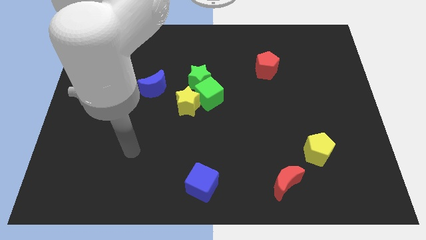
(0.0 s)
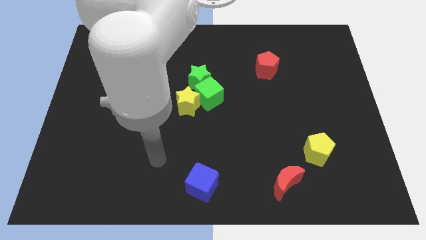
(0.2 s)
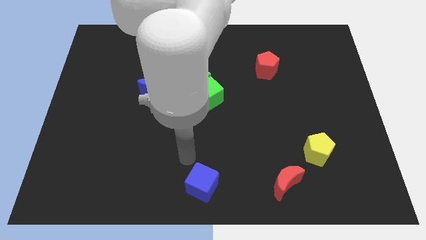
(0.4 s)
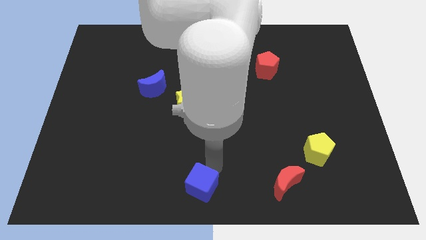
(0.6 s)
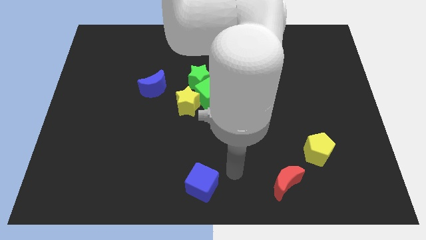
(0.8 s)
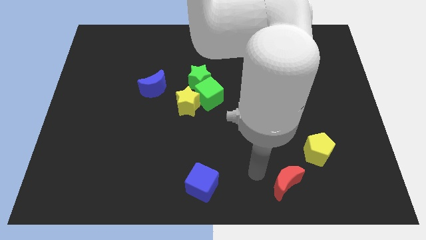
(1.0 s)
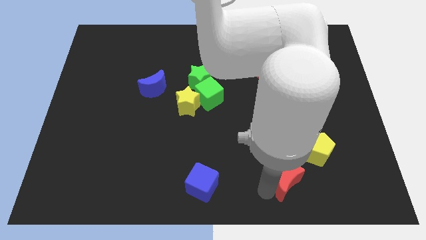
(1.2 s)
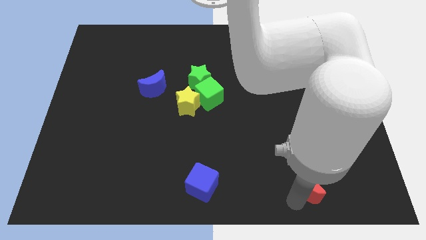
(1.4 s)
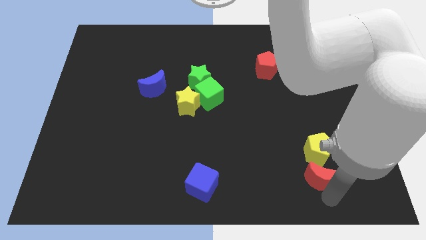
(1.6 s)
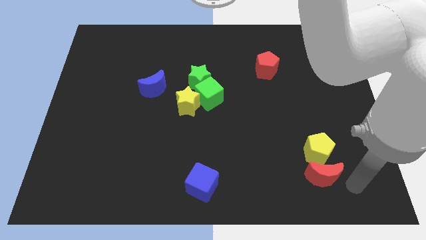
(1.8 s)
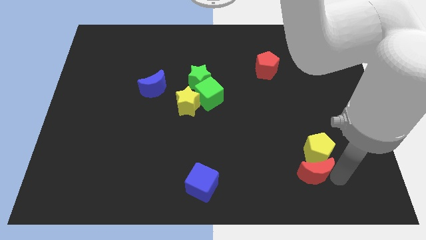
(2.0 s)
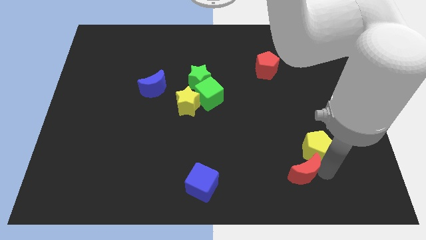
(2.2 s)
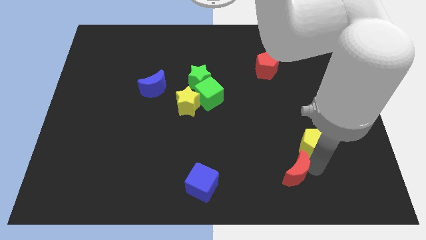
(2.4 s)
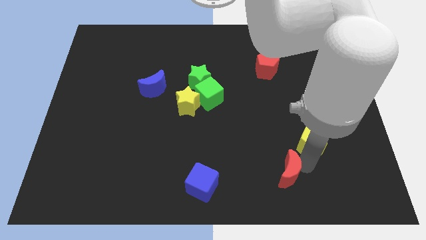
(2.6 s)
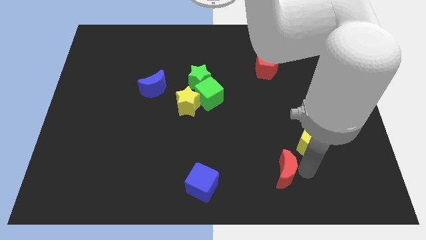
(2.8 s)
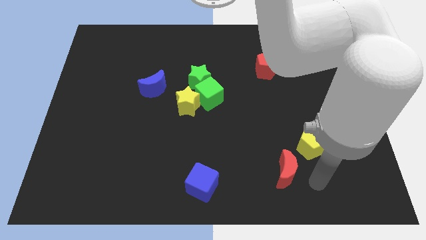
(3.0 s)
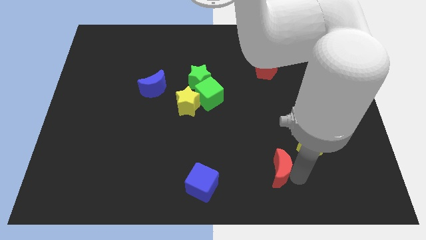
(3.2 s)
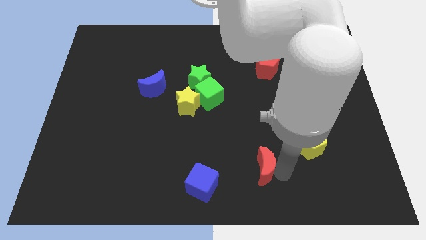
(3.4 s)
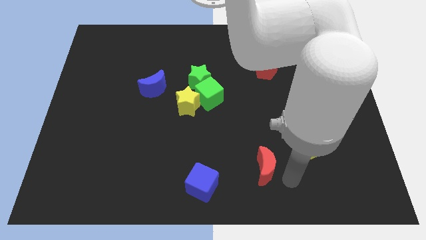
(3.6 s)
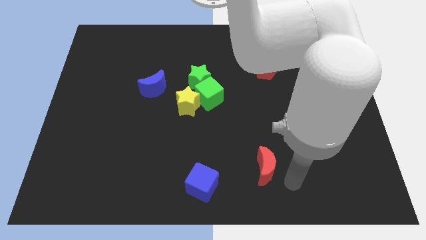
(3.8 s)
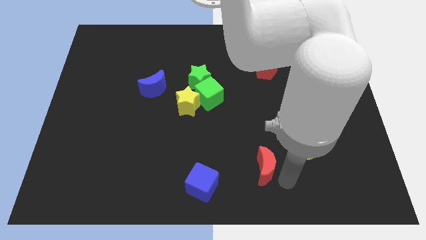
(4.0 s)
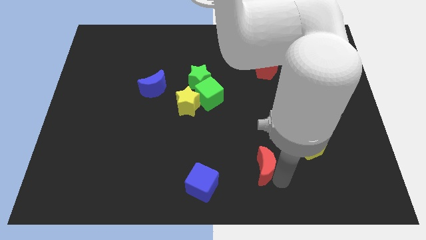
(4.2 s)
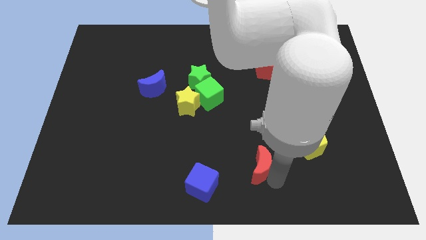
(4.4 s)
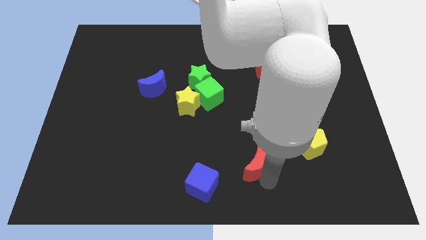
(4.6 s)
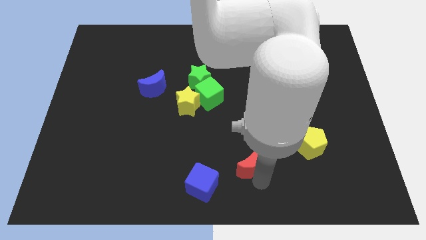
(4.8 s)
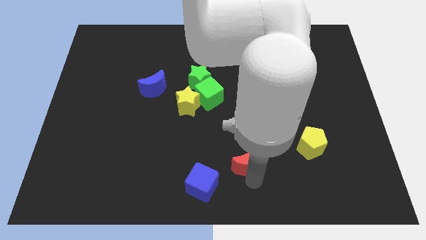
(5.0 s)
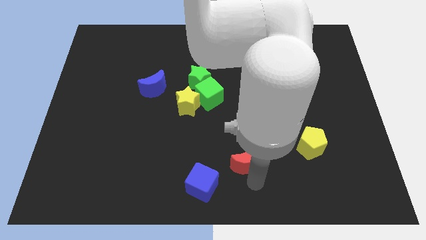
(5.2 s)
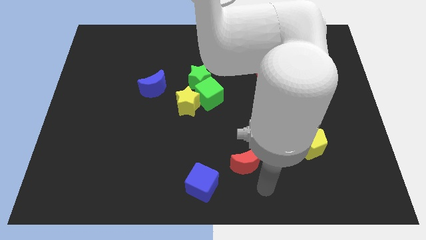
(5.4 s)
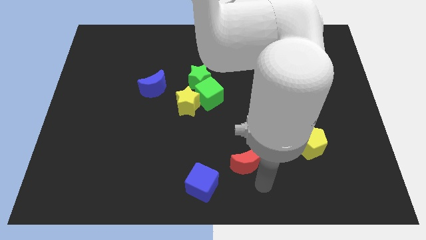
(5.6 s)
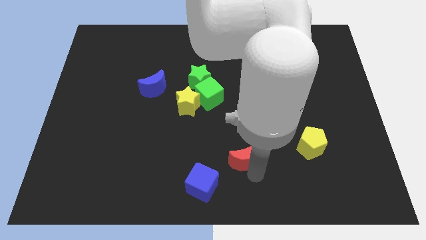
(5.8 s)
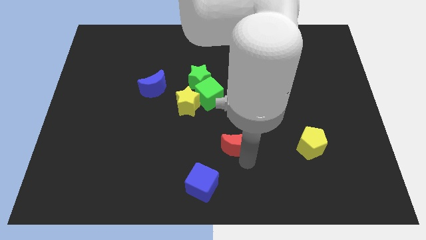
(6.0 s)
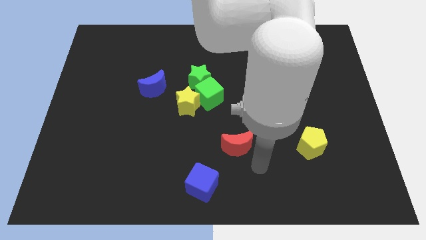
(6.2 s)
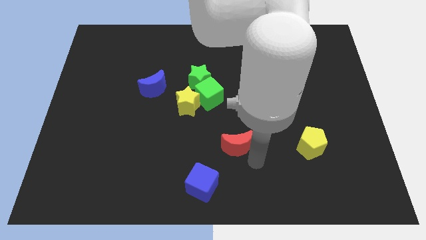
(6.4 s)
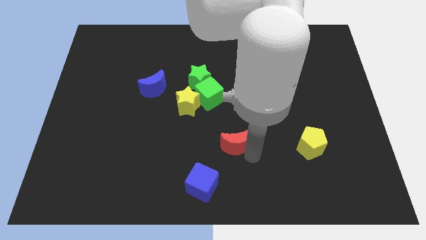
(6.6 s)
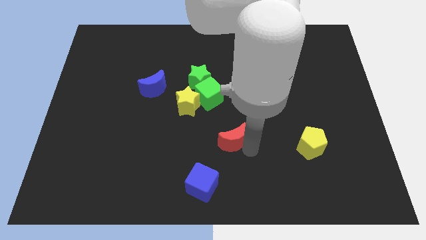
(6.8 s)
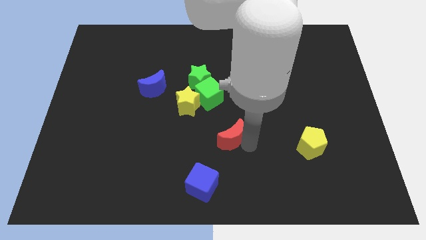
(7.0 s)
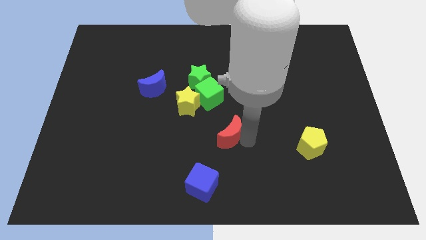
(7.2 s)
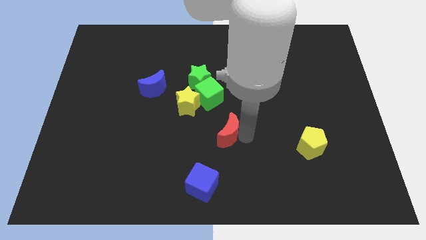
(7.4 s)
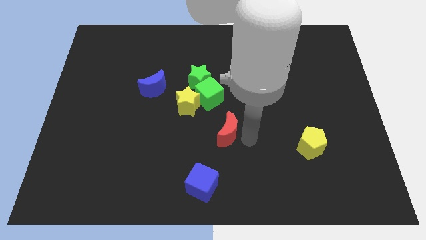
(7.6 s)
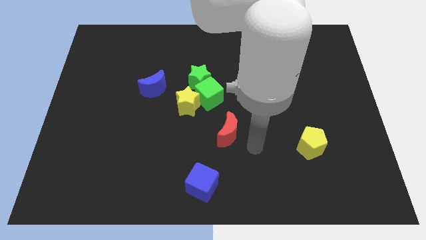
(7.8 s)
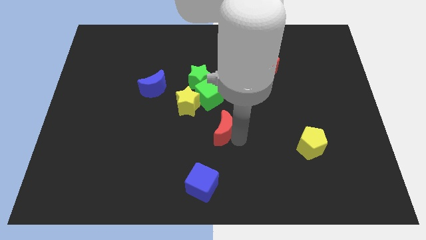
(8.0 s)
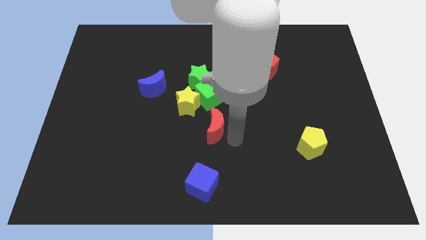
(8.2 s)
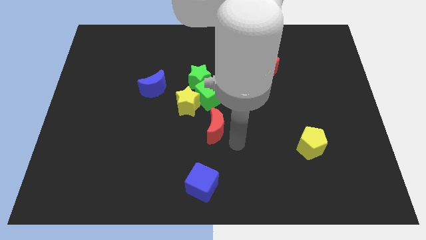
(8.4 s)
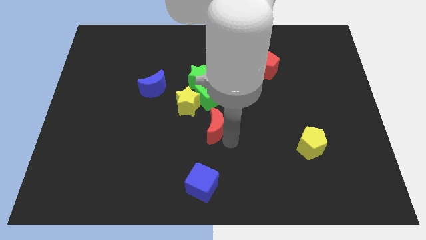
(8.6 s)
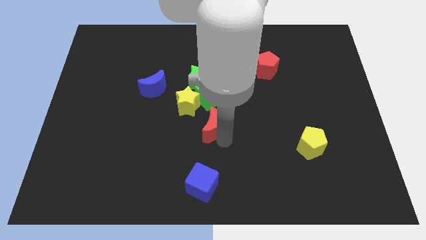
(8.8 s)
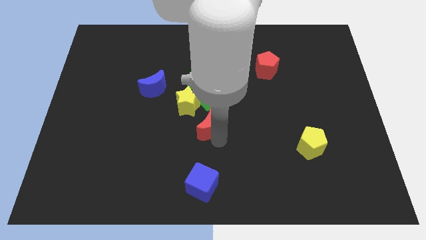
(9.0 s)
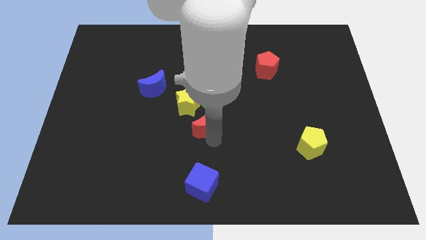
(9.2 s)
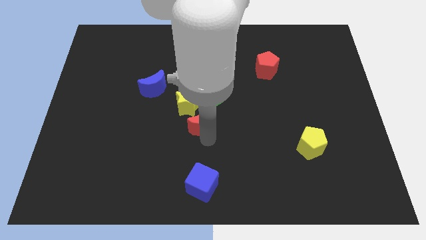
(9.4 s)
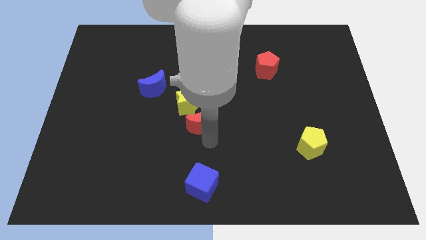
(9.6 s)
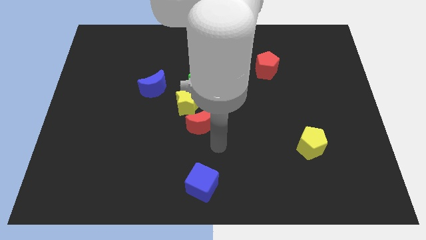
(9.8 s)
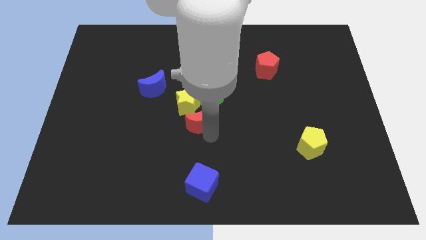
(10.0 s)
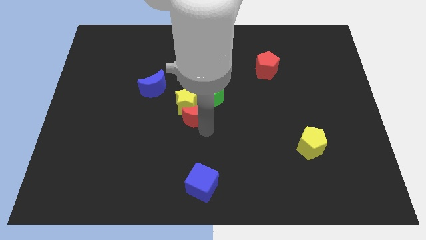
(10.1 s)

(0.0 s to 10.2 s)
put the red moon to the yellow star

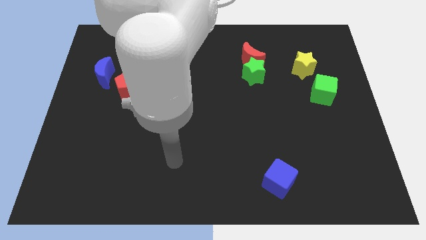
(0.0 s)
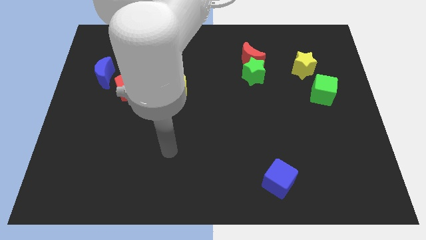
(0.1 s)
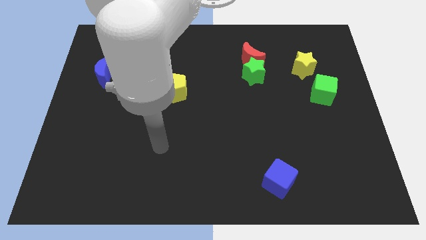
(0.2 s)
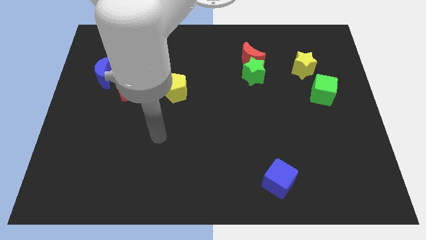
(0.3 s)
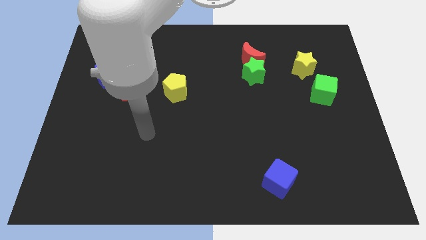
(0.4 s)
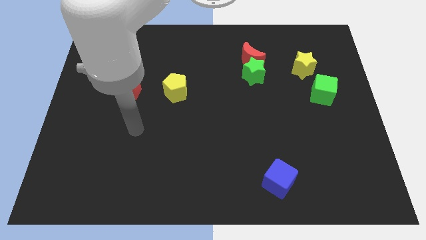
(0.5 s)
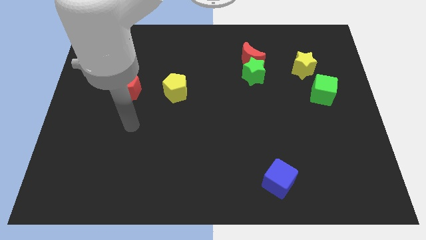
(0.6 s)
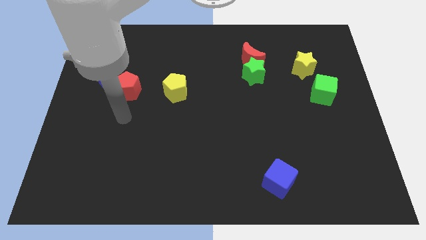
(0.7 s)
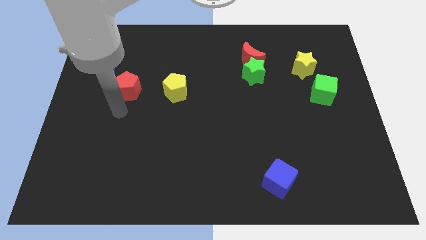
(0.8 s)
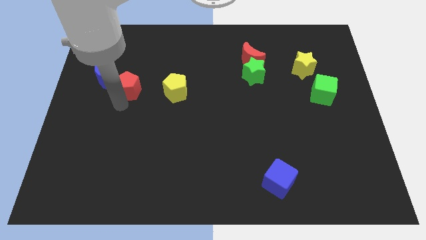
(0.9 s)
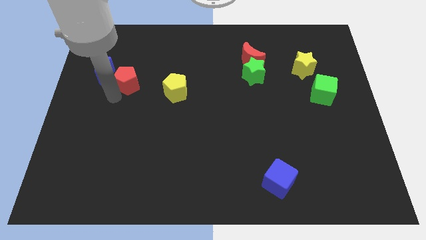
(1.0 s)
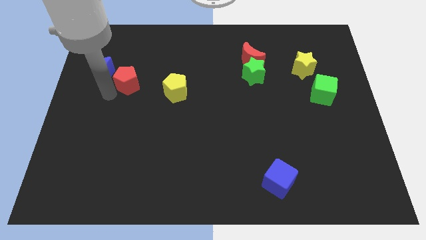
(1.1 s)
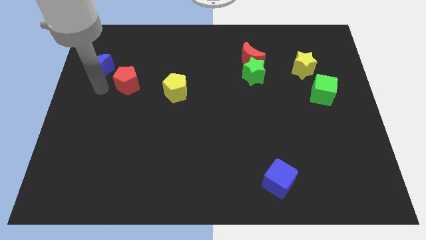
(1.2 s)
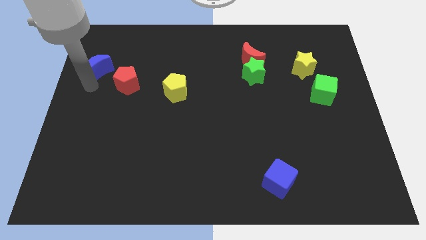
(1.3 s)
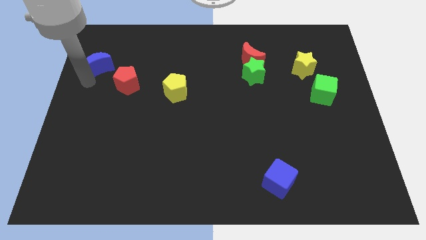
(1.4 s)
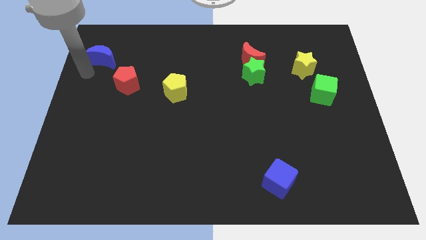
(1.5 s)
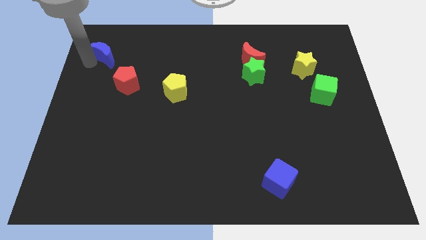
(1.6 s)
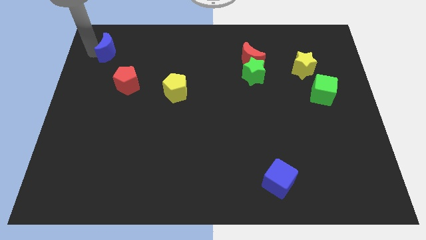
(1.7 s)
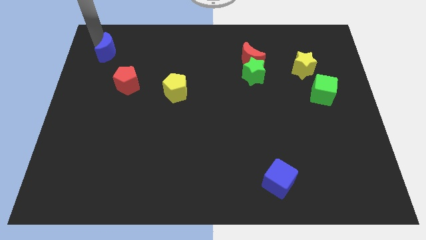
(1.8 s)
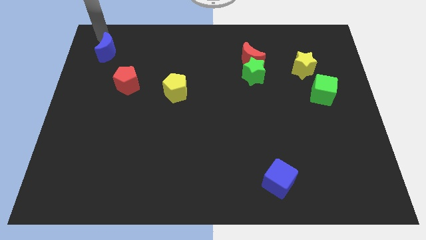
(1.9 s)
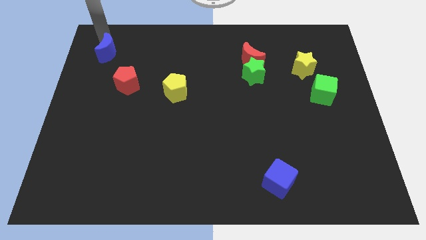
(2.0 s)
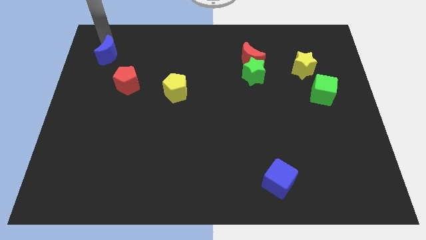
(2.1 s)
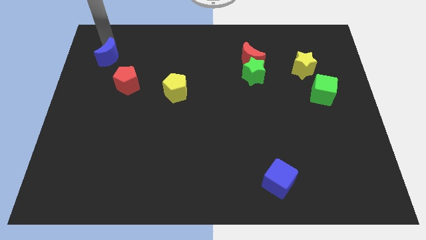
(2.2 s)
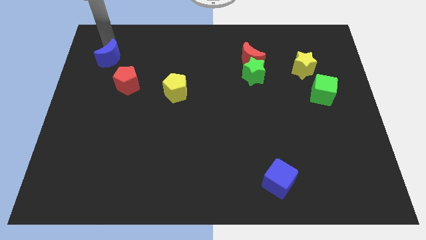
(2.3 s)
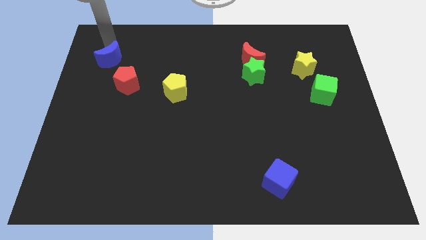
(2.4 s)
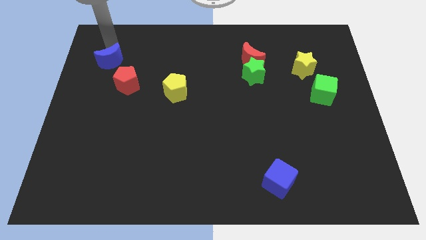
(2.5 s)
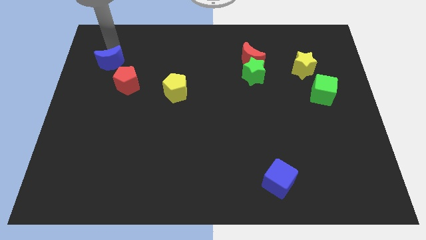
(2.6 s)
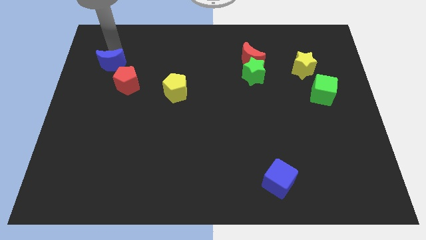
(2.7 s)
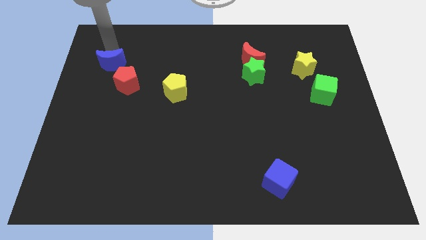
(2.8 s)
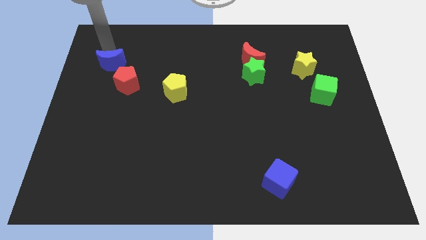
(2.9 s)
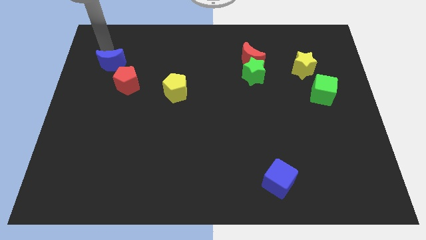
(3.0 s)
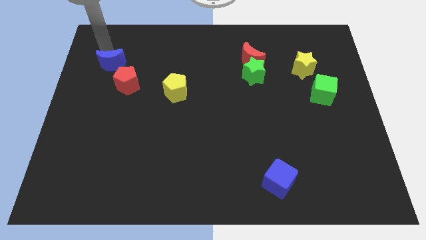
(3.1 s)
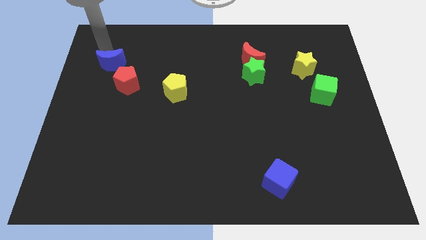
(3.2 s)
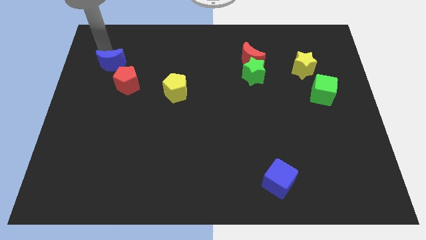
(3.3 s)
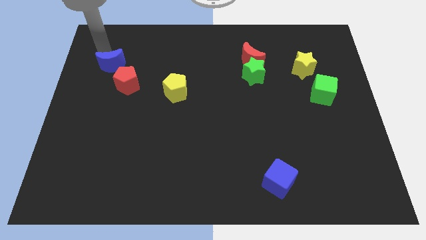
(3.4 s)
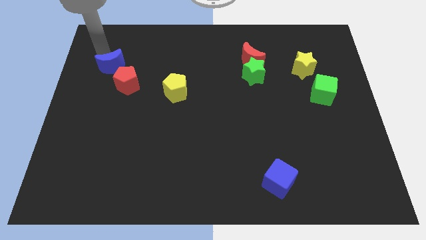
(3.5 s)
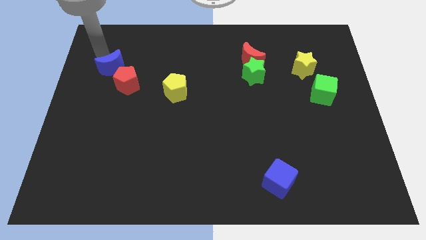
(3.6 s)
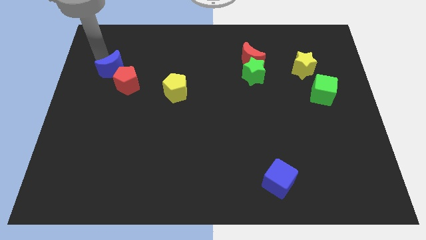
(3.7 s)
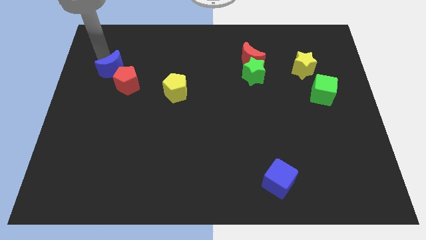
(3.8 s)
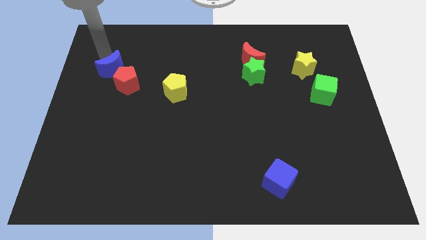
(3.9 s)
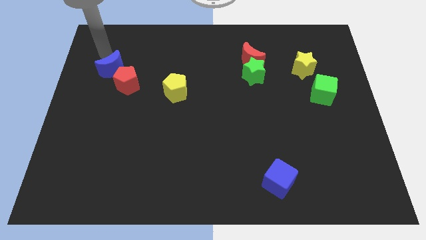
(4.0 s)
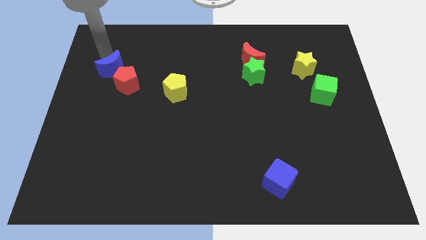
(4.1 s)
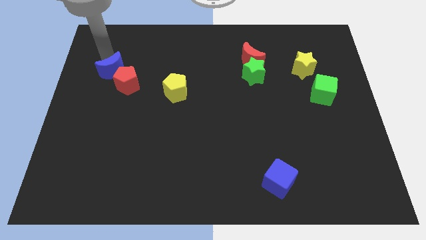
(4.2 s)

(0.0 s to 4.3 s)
slide the blue moon close to the red pentagon
